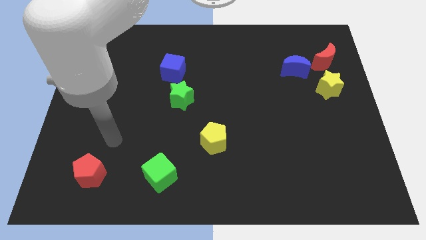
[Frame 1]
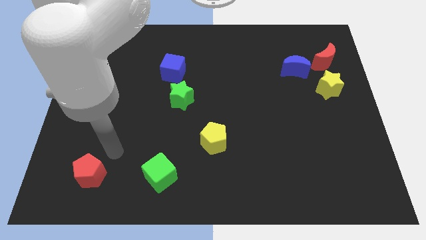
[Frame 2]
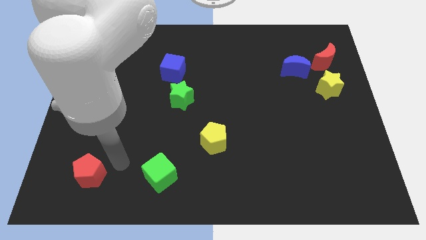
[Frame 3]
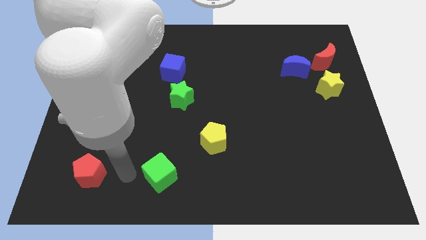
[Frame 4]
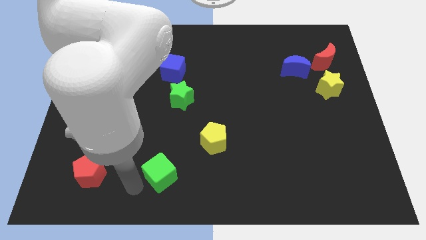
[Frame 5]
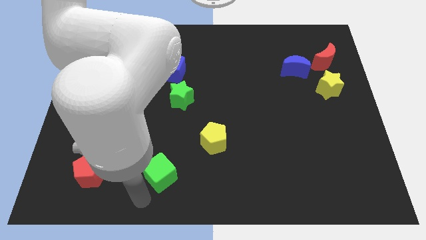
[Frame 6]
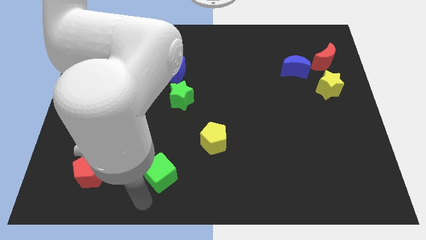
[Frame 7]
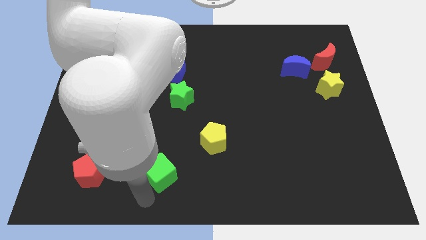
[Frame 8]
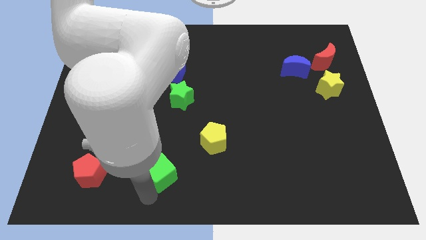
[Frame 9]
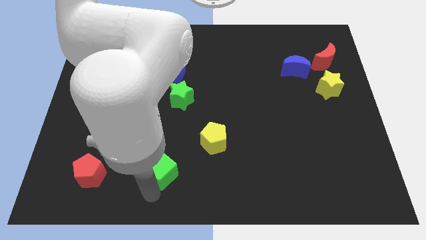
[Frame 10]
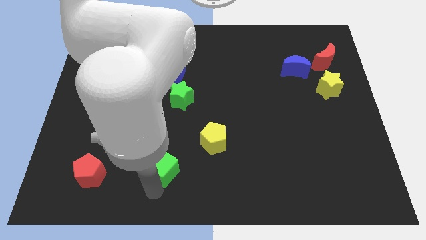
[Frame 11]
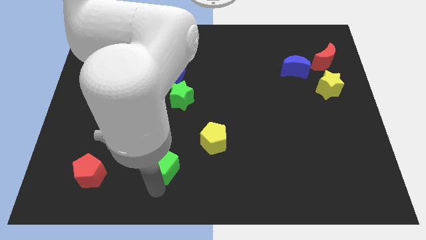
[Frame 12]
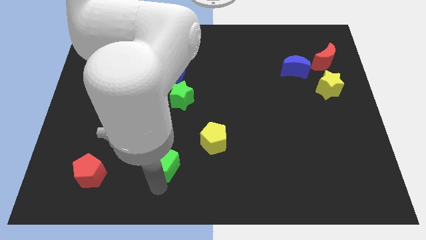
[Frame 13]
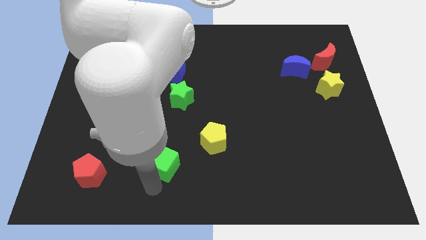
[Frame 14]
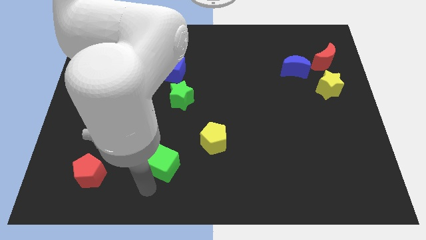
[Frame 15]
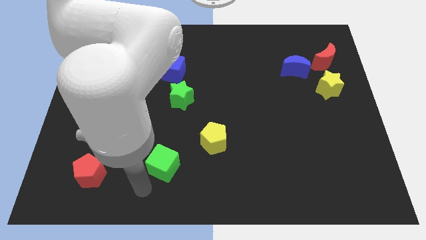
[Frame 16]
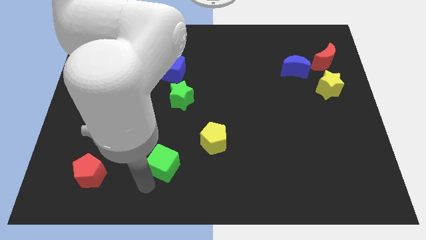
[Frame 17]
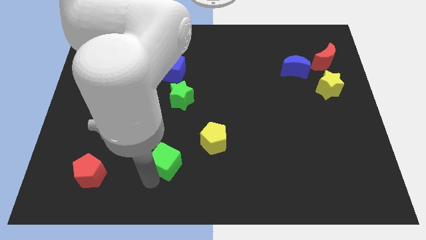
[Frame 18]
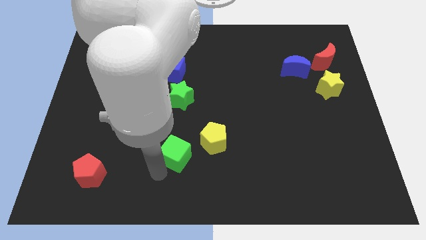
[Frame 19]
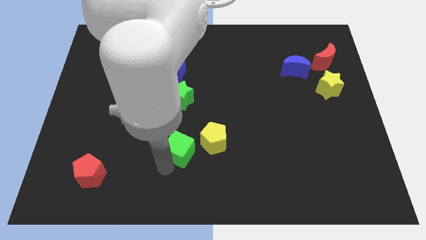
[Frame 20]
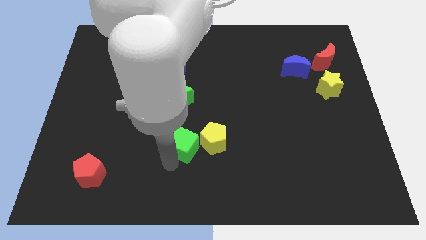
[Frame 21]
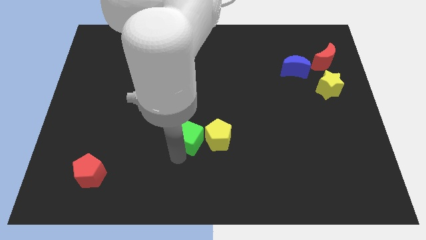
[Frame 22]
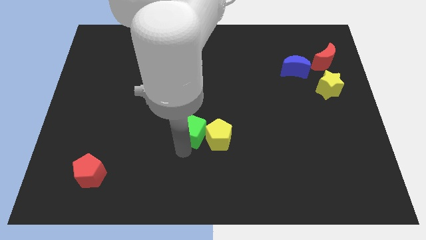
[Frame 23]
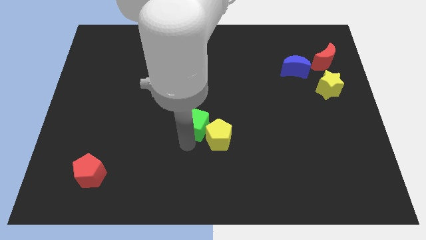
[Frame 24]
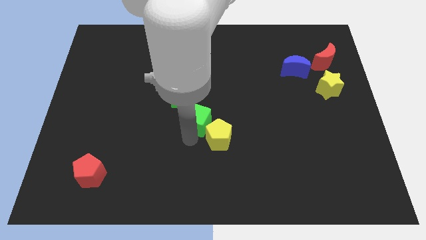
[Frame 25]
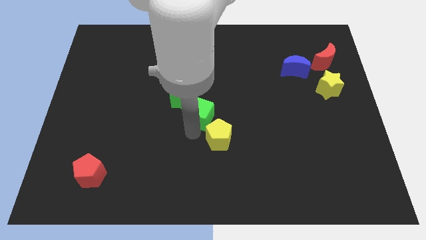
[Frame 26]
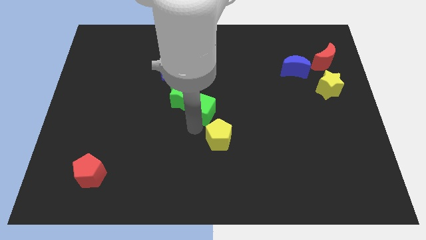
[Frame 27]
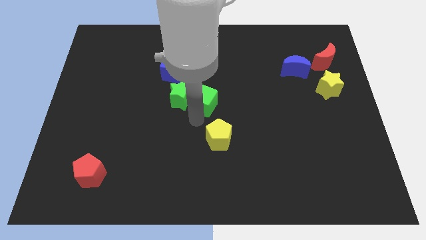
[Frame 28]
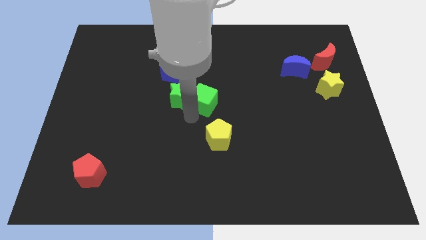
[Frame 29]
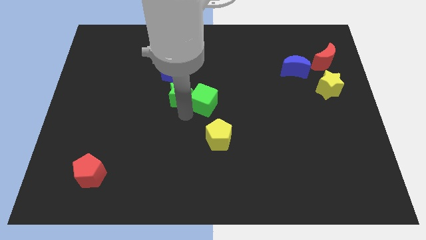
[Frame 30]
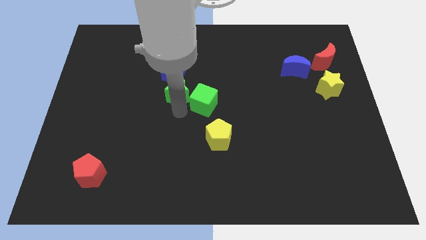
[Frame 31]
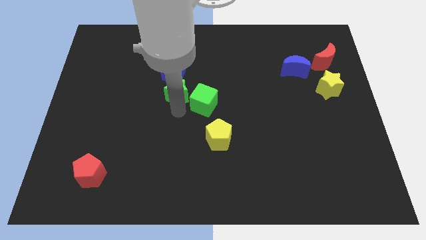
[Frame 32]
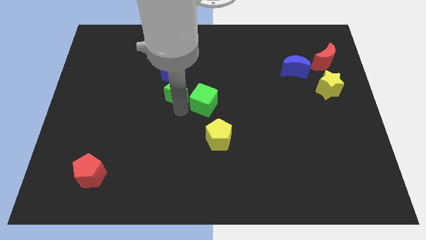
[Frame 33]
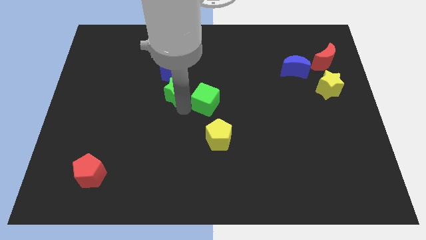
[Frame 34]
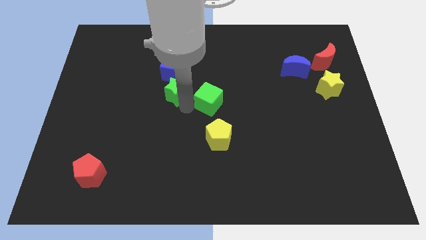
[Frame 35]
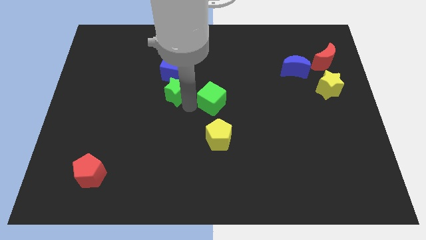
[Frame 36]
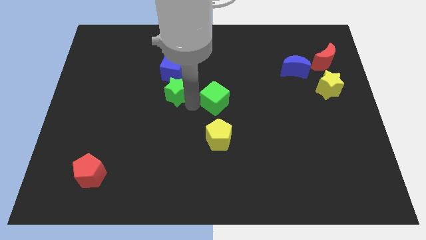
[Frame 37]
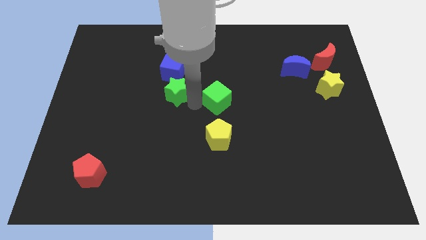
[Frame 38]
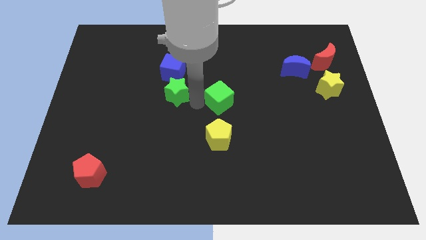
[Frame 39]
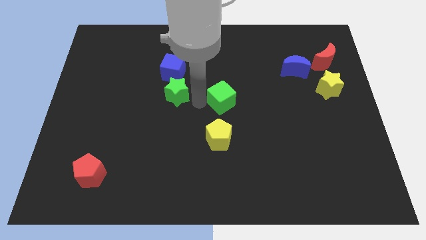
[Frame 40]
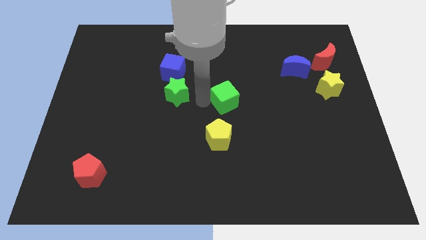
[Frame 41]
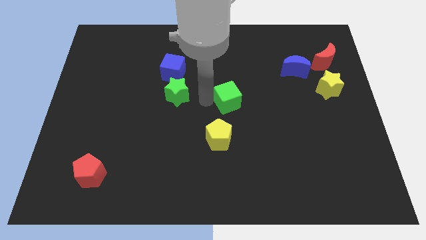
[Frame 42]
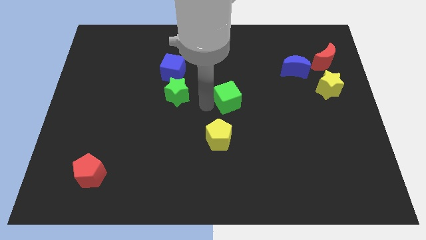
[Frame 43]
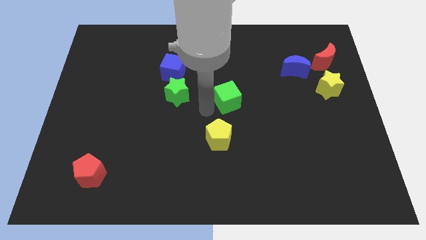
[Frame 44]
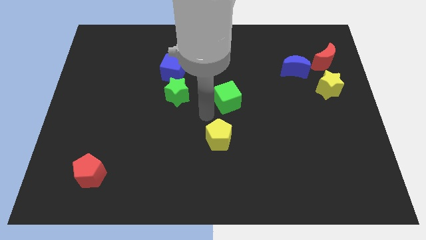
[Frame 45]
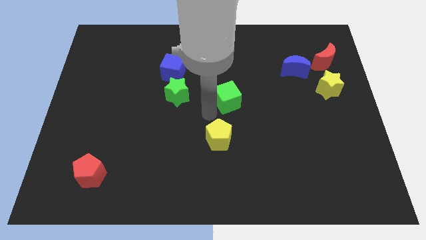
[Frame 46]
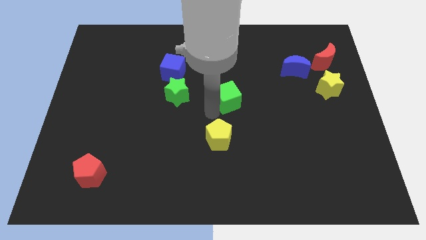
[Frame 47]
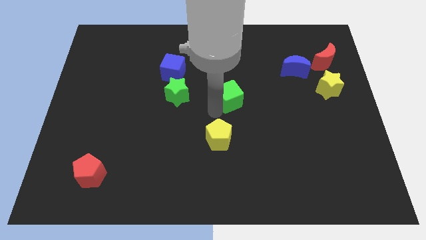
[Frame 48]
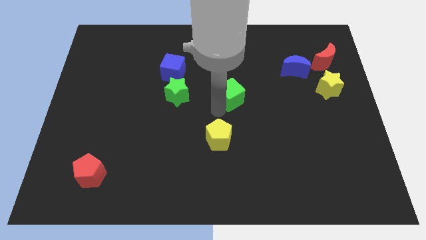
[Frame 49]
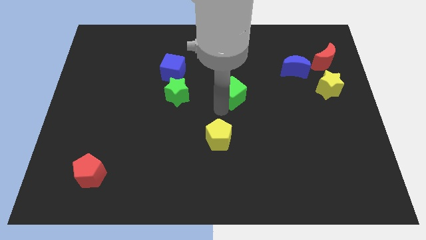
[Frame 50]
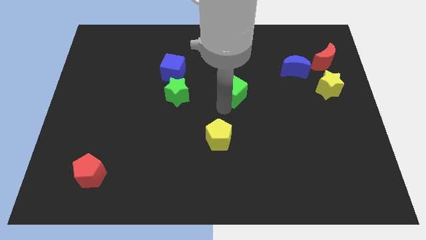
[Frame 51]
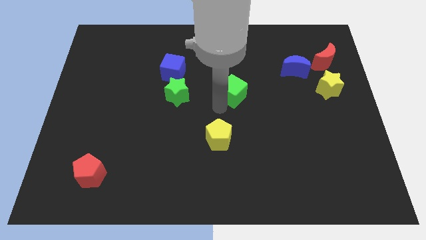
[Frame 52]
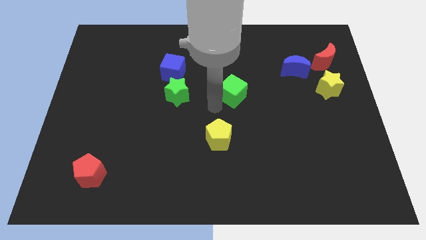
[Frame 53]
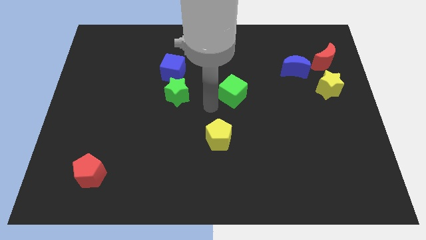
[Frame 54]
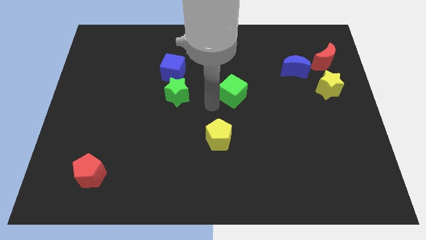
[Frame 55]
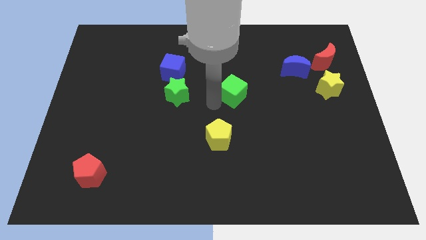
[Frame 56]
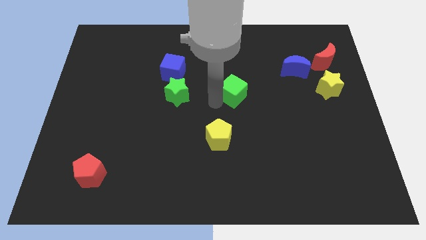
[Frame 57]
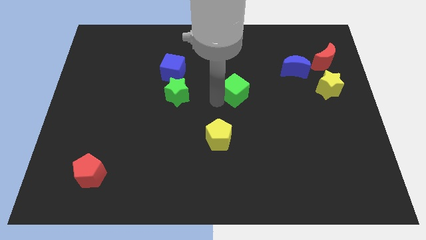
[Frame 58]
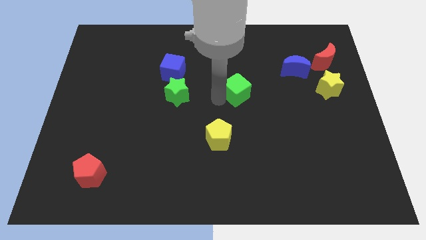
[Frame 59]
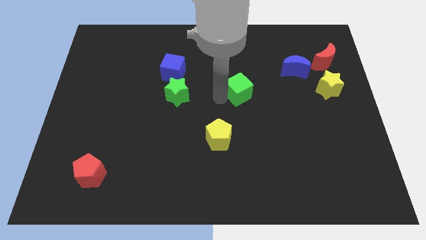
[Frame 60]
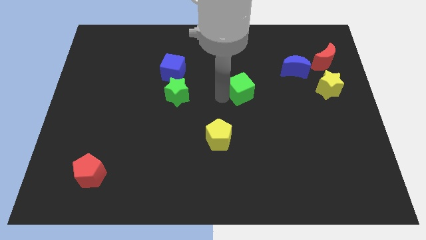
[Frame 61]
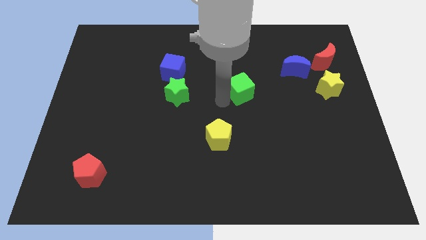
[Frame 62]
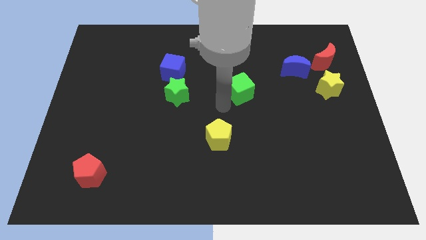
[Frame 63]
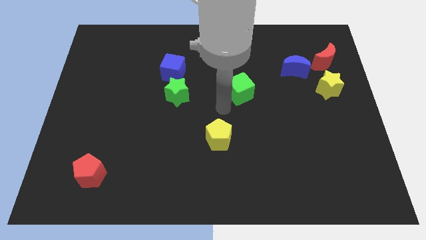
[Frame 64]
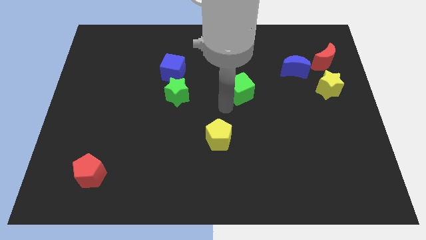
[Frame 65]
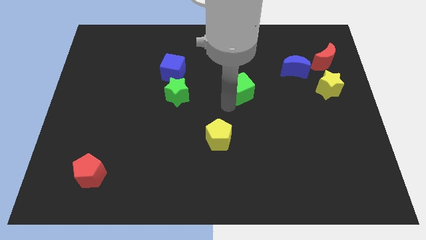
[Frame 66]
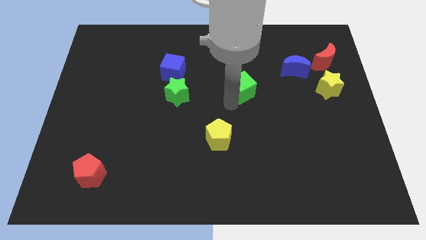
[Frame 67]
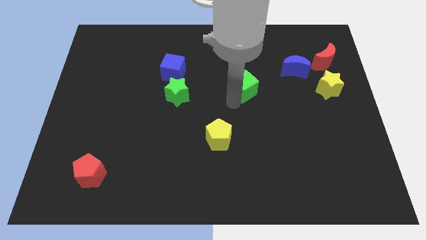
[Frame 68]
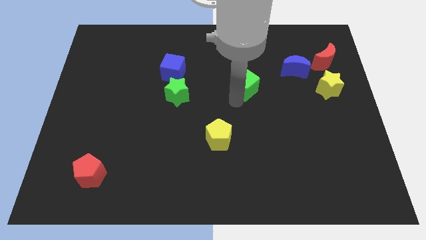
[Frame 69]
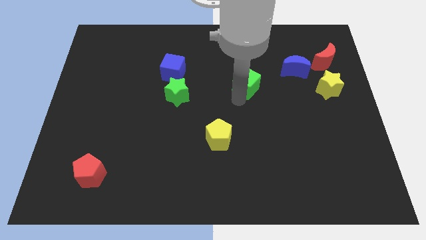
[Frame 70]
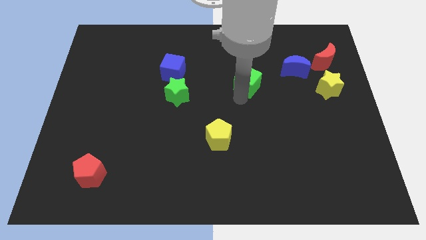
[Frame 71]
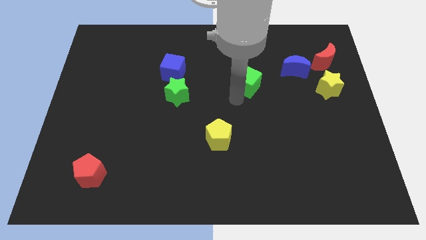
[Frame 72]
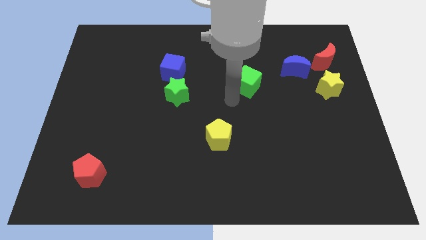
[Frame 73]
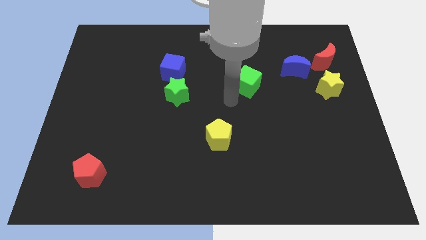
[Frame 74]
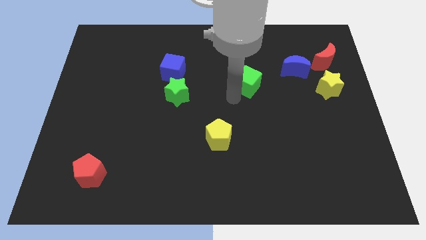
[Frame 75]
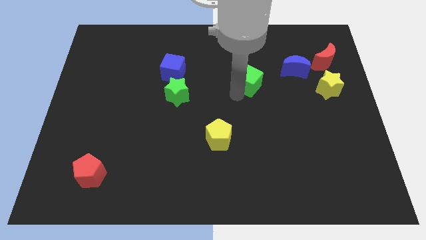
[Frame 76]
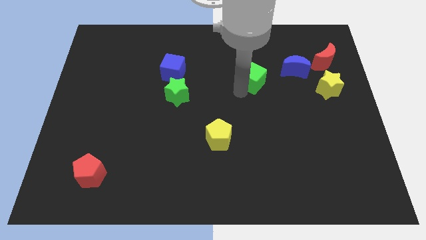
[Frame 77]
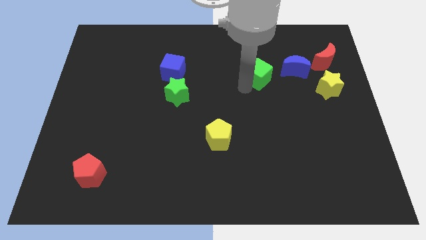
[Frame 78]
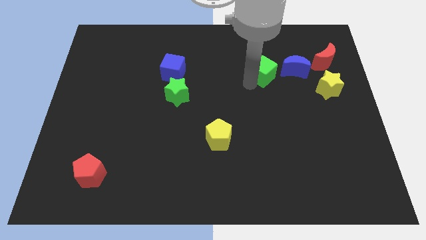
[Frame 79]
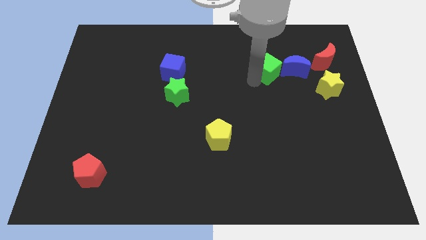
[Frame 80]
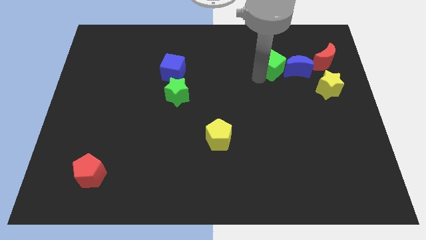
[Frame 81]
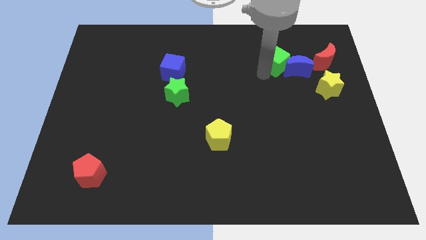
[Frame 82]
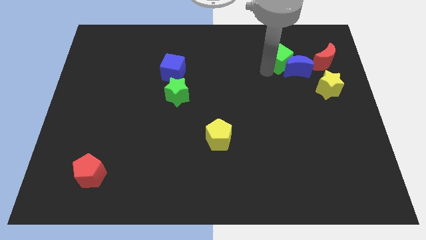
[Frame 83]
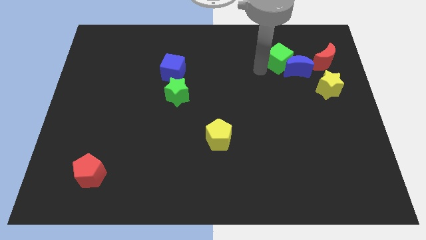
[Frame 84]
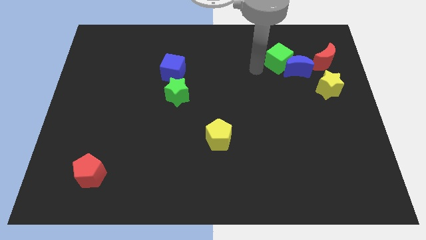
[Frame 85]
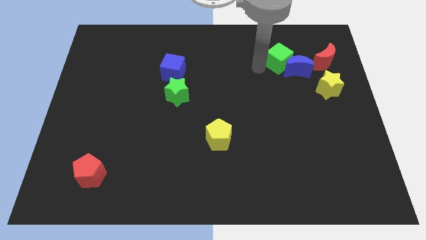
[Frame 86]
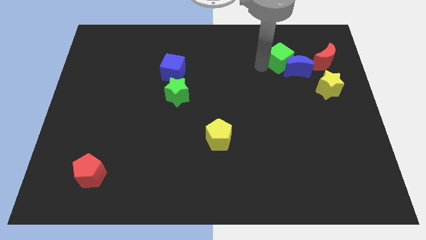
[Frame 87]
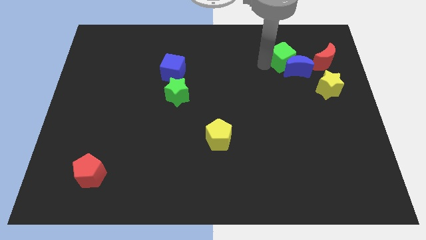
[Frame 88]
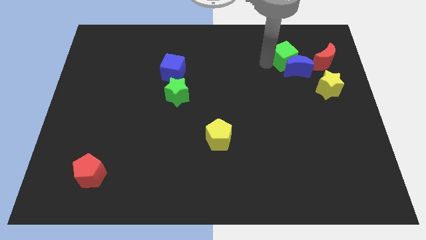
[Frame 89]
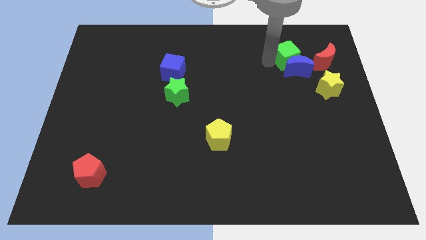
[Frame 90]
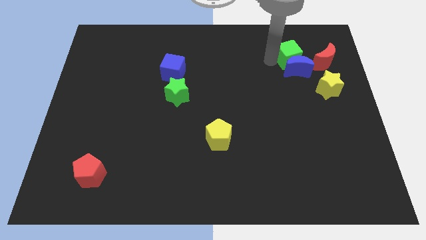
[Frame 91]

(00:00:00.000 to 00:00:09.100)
slide the green cube to the top right of the blue moon
